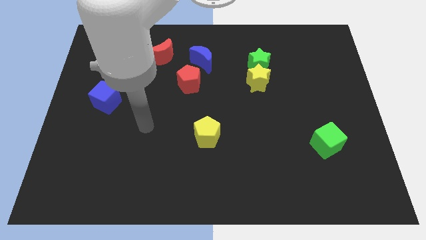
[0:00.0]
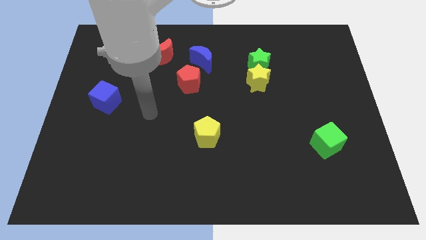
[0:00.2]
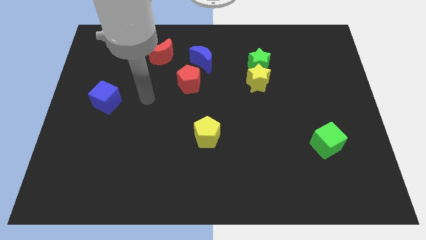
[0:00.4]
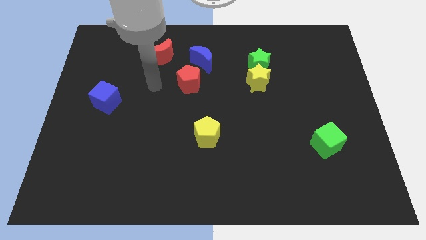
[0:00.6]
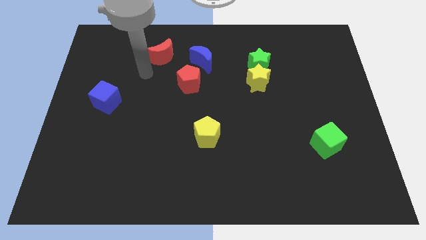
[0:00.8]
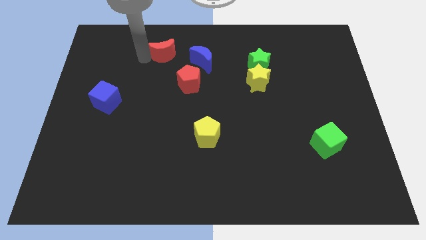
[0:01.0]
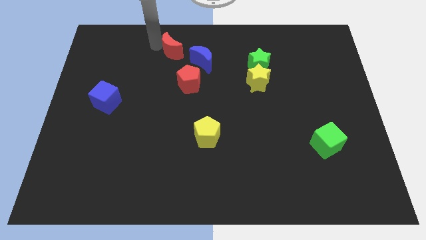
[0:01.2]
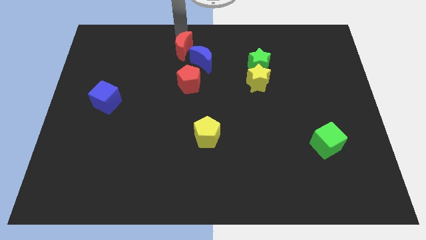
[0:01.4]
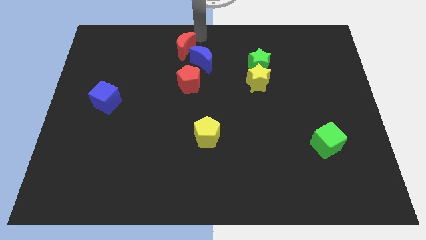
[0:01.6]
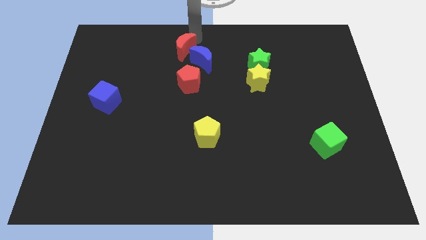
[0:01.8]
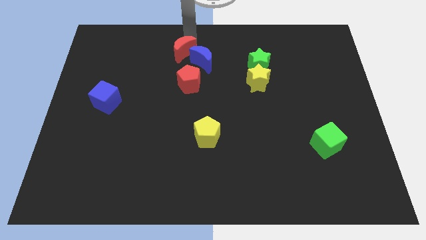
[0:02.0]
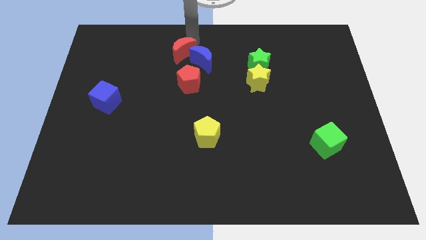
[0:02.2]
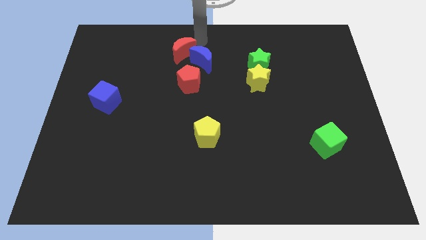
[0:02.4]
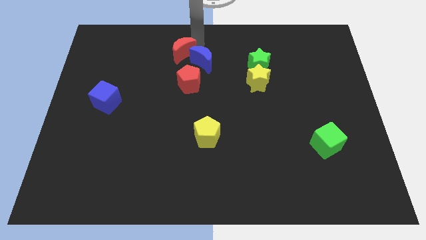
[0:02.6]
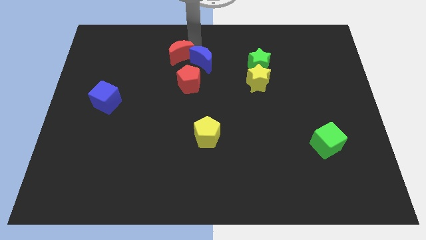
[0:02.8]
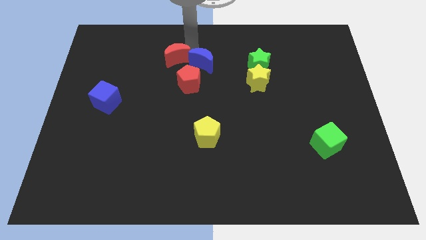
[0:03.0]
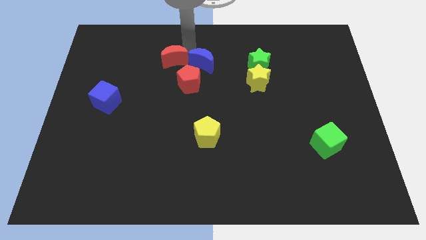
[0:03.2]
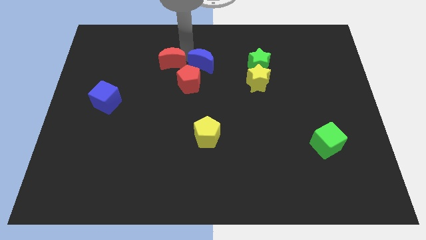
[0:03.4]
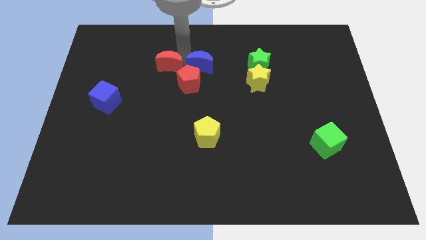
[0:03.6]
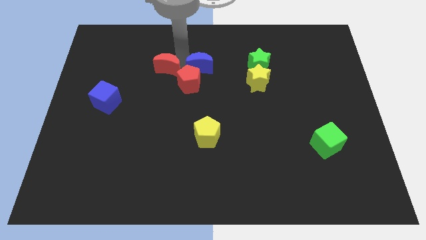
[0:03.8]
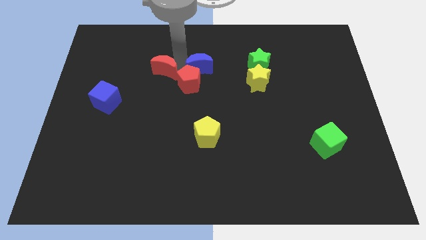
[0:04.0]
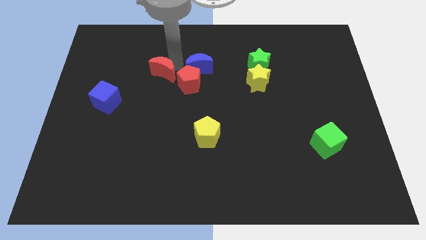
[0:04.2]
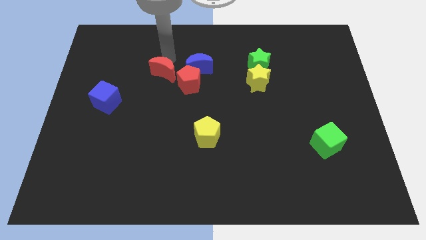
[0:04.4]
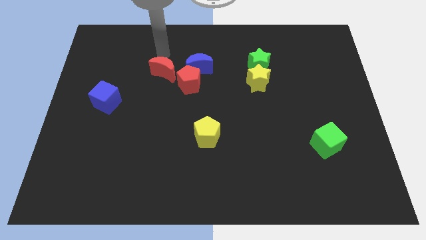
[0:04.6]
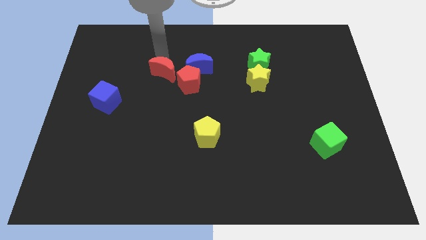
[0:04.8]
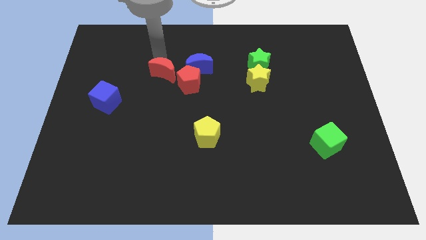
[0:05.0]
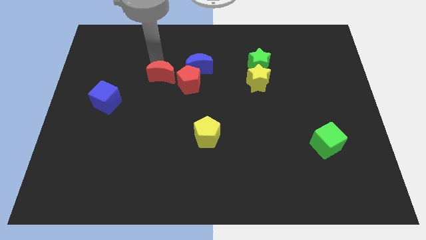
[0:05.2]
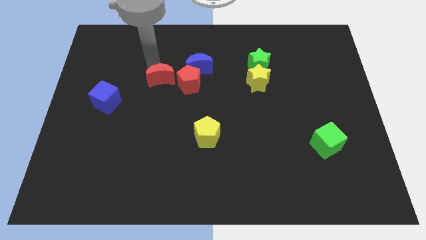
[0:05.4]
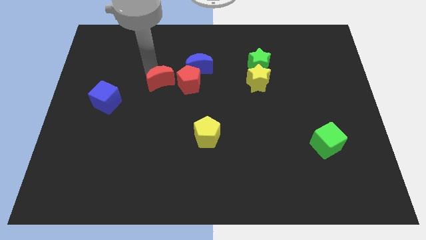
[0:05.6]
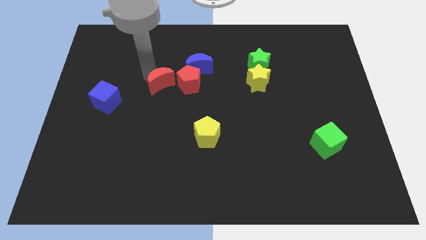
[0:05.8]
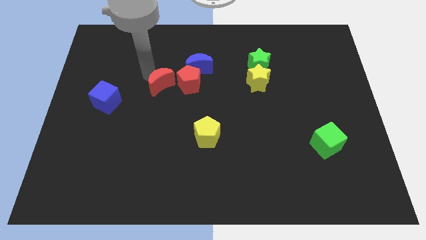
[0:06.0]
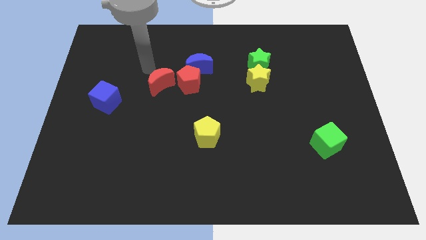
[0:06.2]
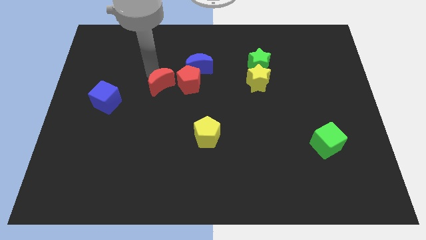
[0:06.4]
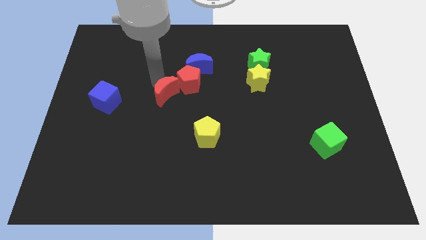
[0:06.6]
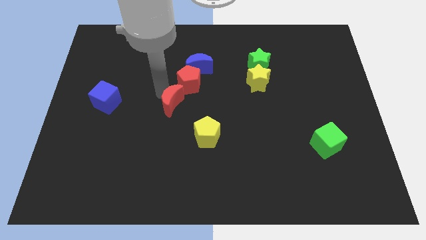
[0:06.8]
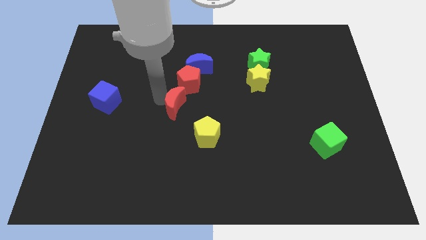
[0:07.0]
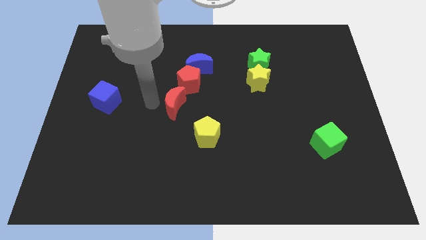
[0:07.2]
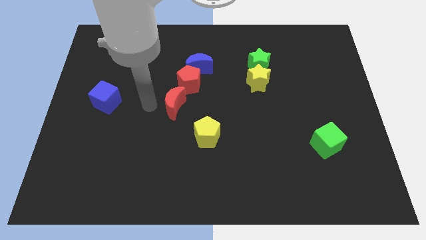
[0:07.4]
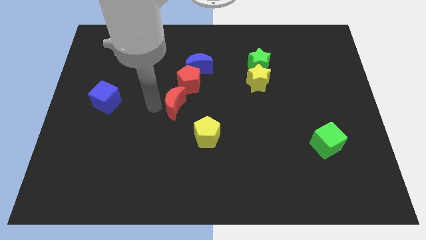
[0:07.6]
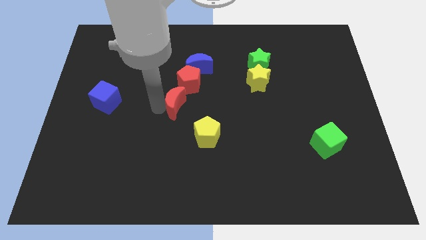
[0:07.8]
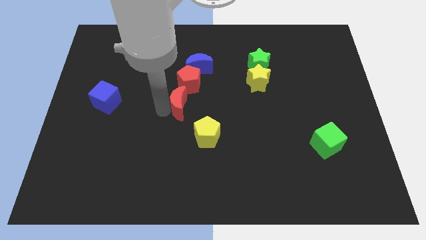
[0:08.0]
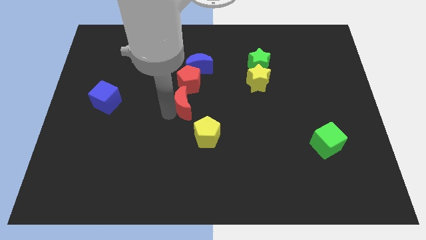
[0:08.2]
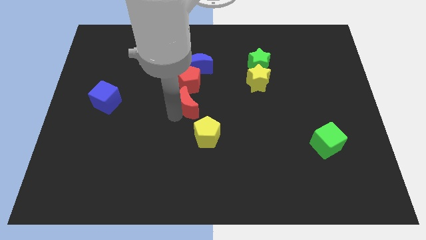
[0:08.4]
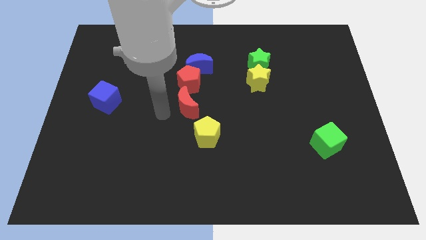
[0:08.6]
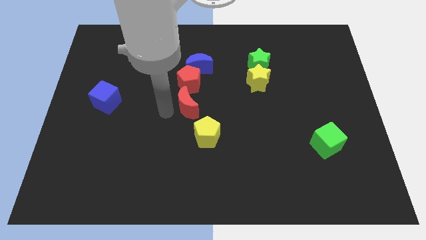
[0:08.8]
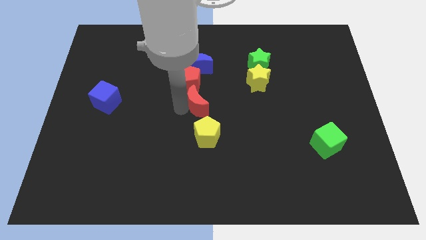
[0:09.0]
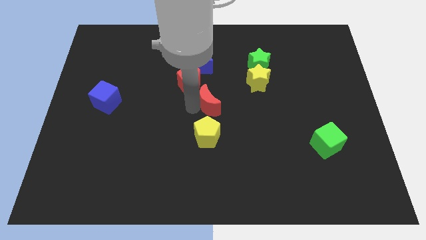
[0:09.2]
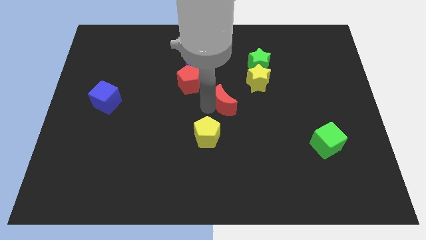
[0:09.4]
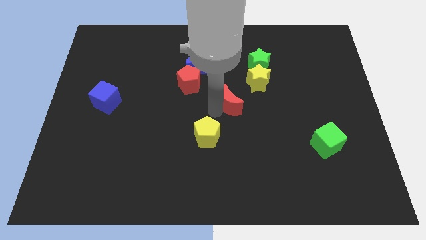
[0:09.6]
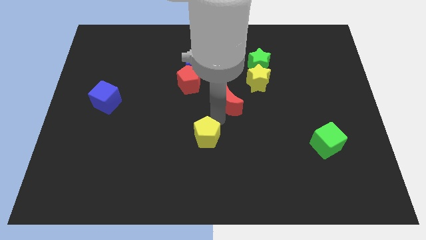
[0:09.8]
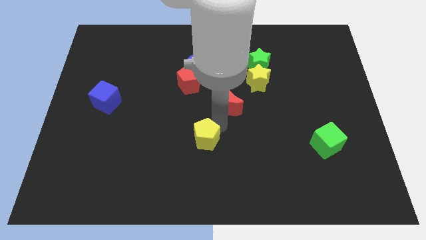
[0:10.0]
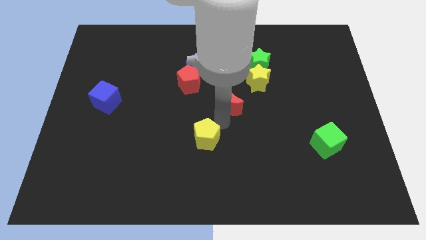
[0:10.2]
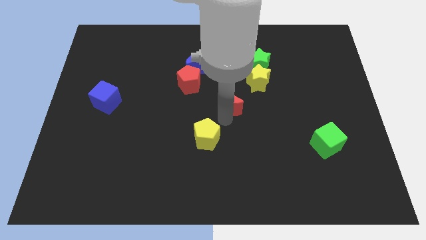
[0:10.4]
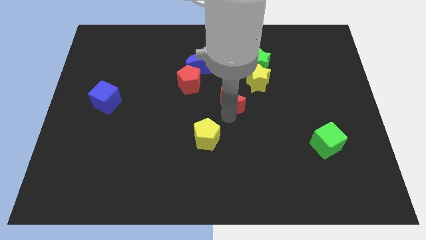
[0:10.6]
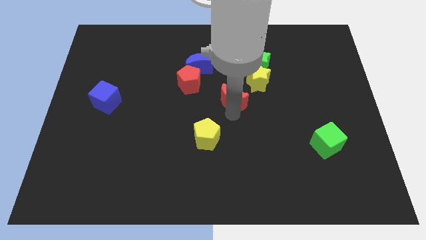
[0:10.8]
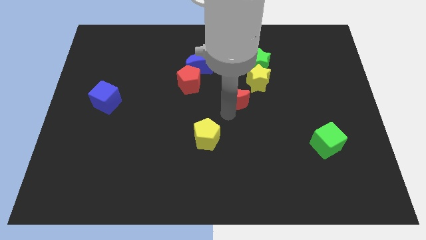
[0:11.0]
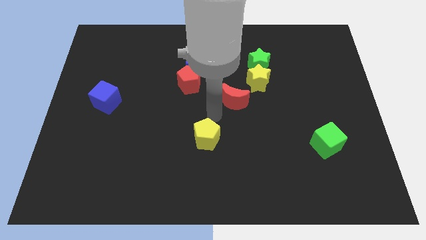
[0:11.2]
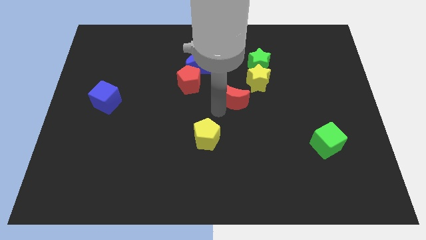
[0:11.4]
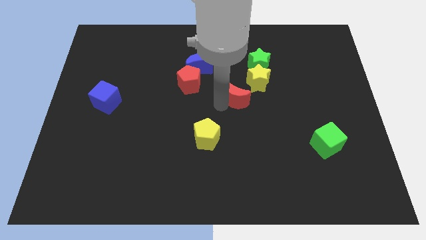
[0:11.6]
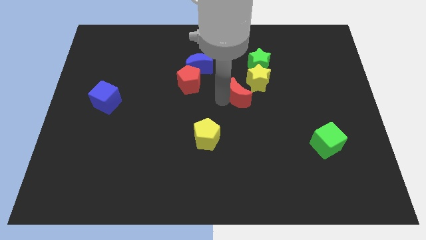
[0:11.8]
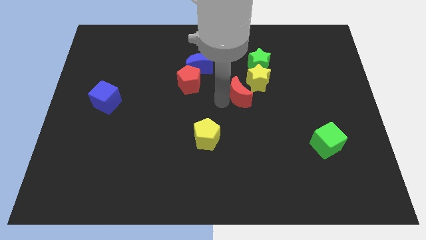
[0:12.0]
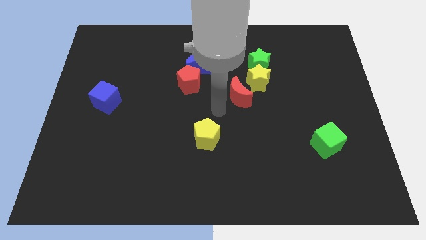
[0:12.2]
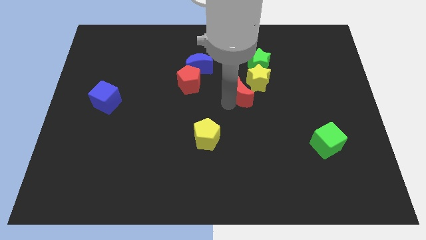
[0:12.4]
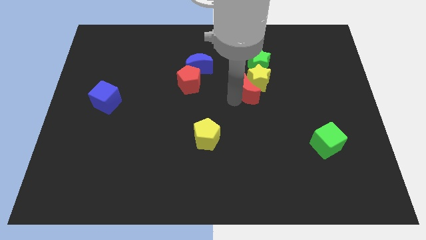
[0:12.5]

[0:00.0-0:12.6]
push the red moon next to the yellow star
